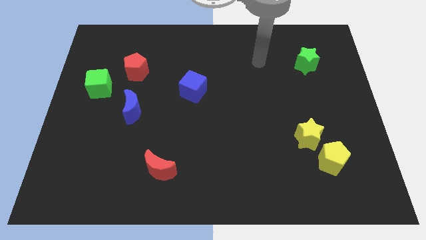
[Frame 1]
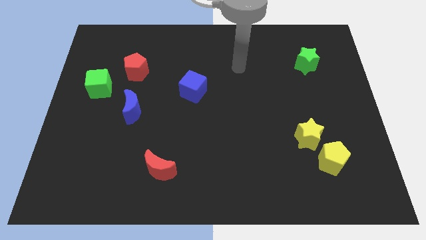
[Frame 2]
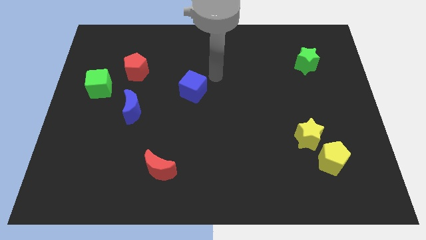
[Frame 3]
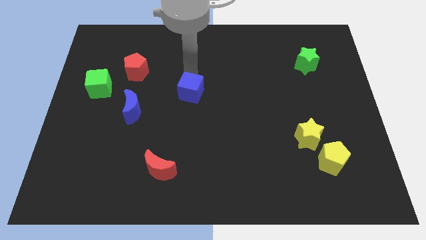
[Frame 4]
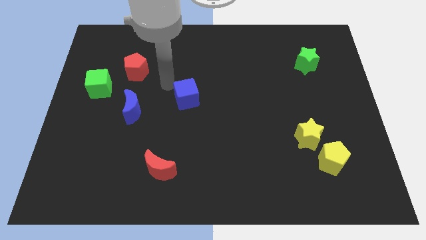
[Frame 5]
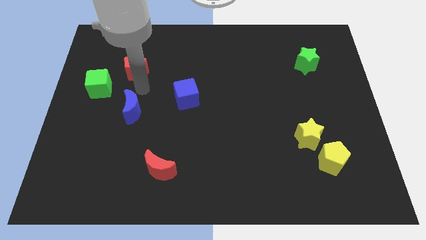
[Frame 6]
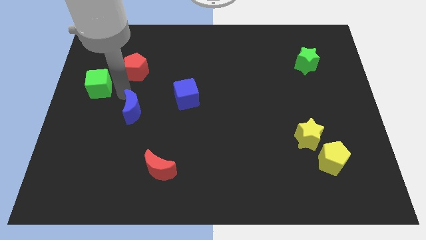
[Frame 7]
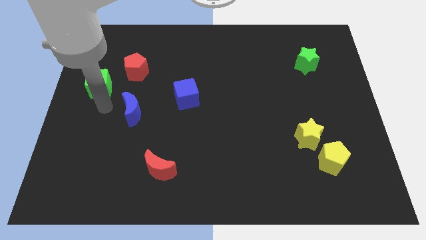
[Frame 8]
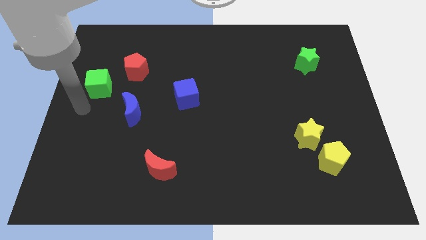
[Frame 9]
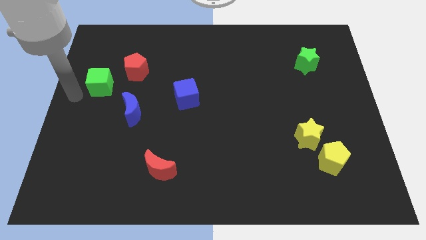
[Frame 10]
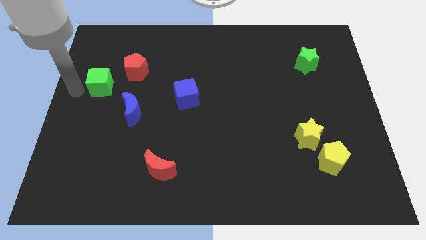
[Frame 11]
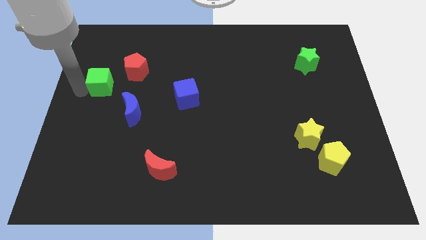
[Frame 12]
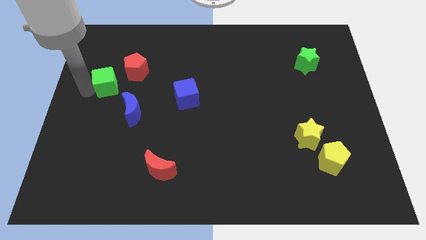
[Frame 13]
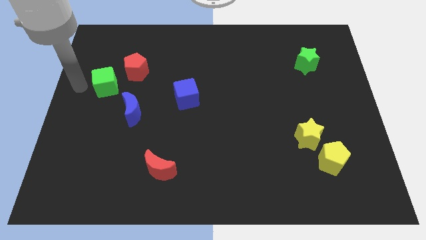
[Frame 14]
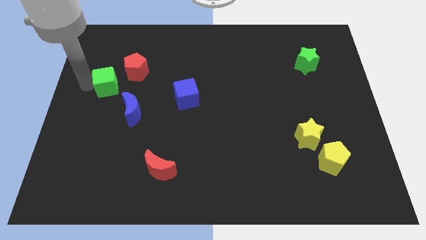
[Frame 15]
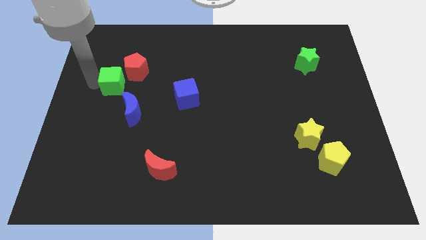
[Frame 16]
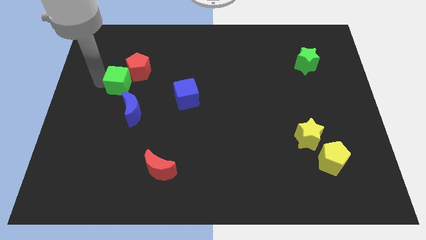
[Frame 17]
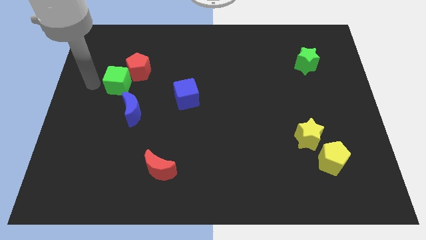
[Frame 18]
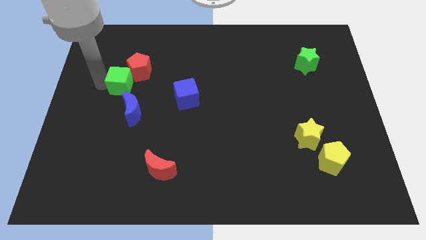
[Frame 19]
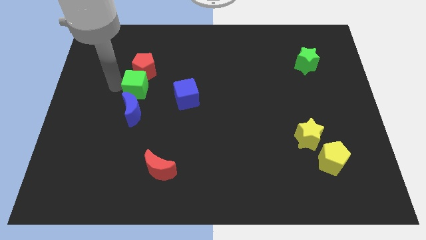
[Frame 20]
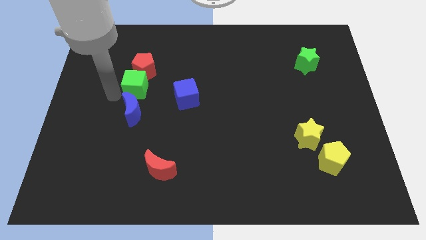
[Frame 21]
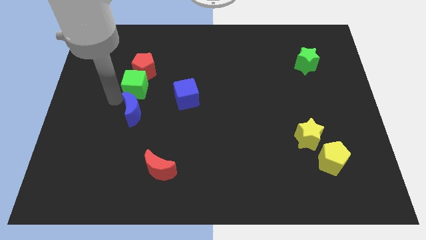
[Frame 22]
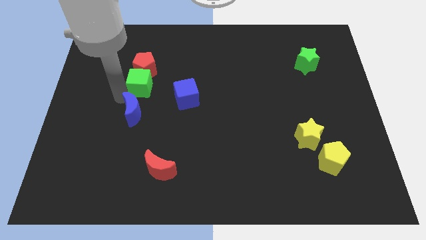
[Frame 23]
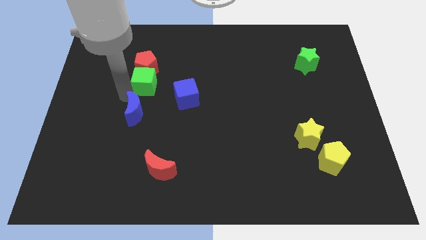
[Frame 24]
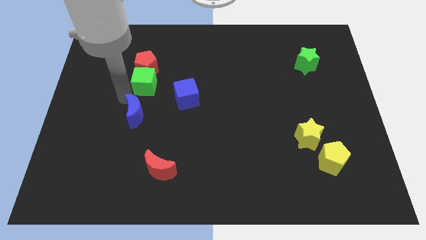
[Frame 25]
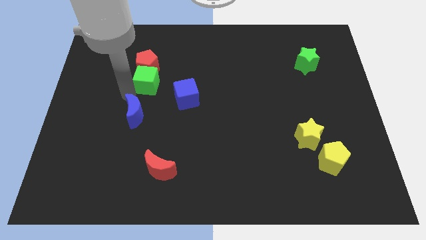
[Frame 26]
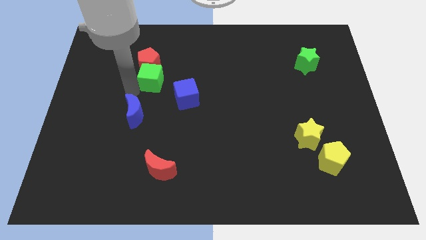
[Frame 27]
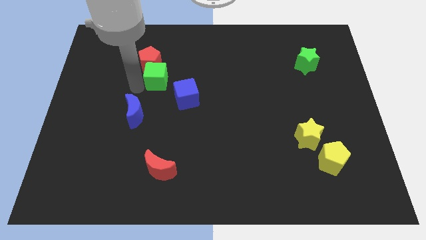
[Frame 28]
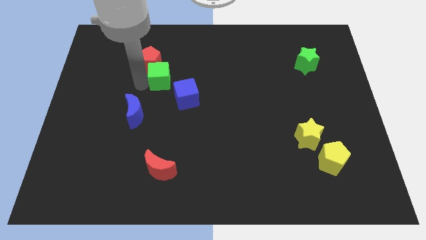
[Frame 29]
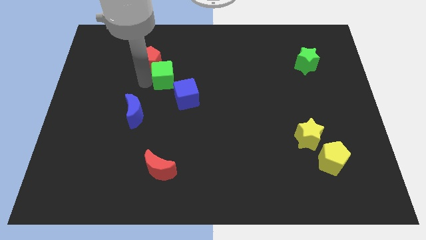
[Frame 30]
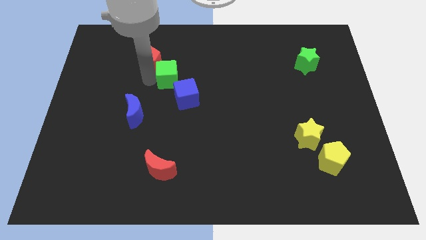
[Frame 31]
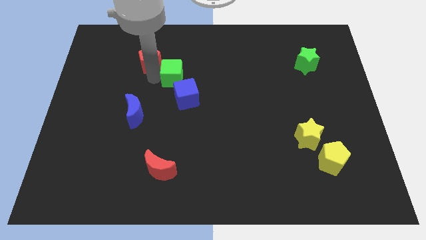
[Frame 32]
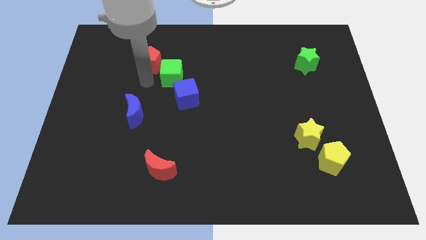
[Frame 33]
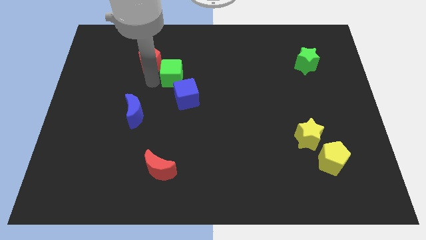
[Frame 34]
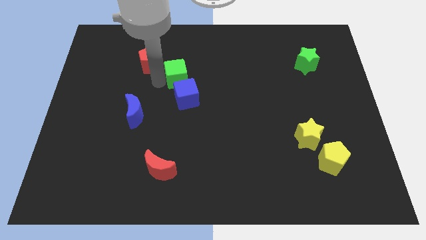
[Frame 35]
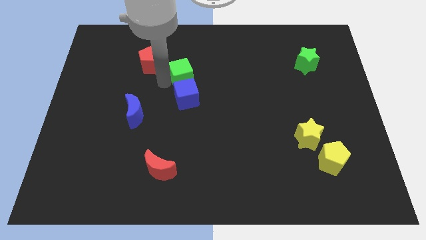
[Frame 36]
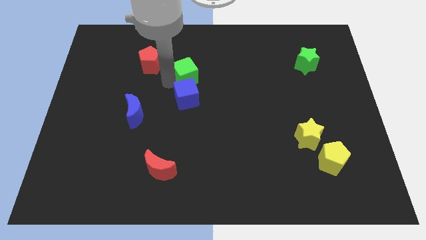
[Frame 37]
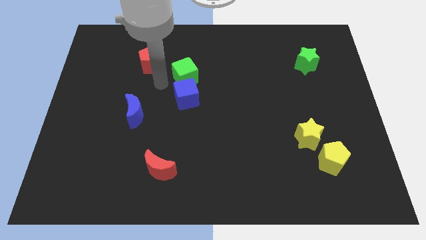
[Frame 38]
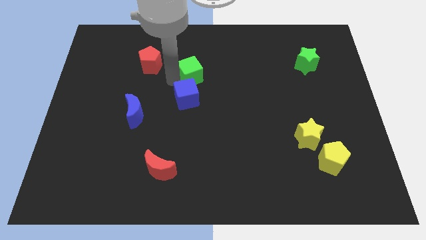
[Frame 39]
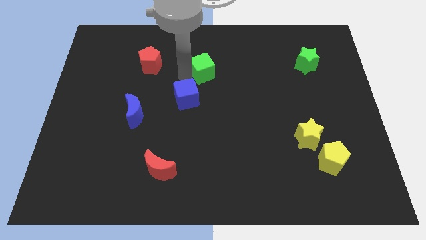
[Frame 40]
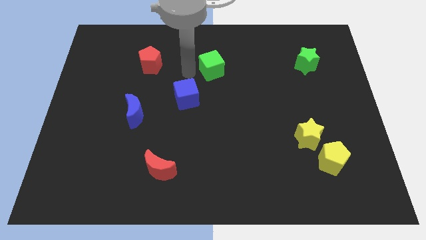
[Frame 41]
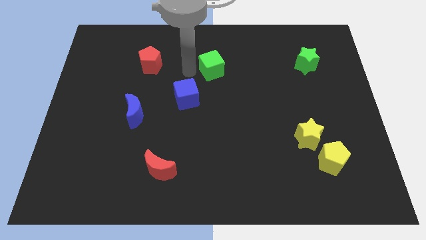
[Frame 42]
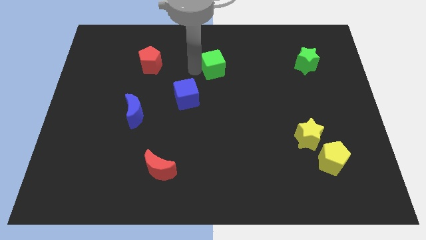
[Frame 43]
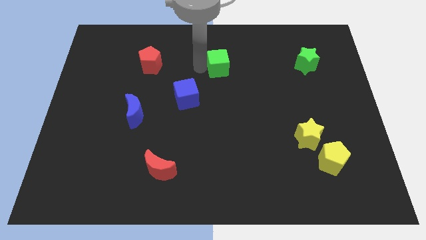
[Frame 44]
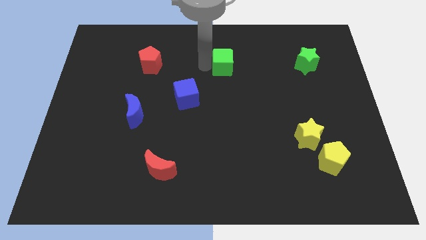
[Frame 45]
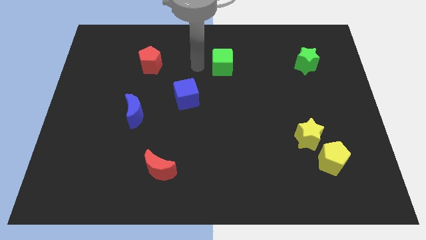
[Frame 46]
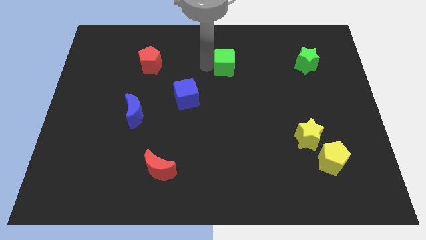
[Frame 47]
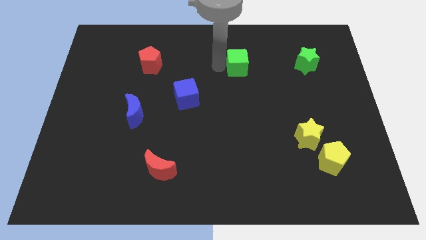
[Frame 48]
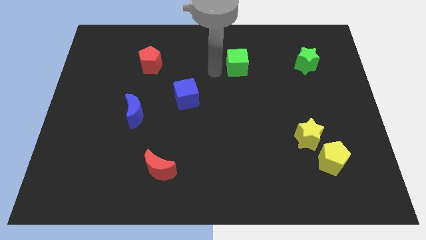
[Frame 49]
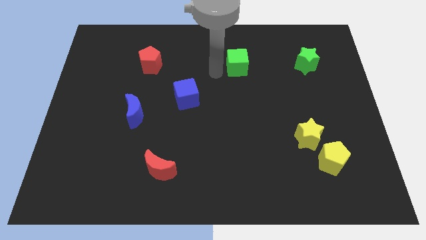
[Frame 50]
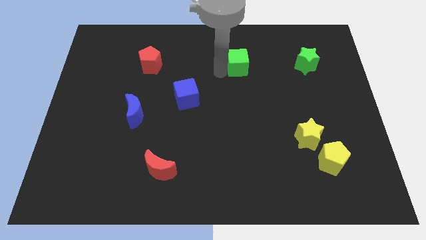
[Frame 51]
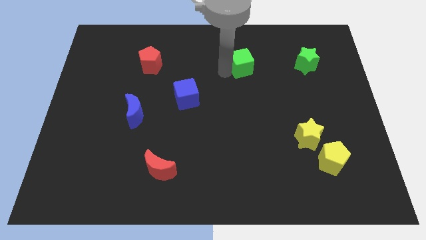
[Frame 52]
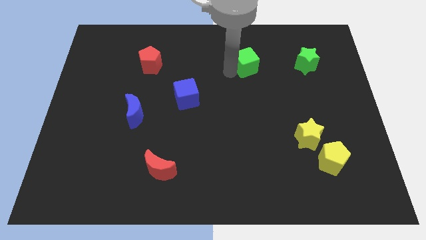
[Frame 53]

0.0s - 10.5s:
slide the green cube to the left of the green star

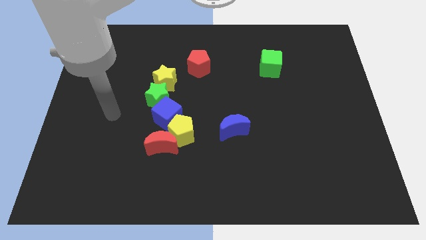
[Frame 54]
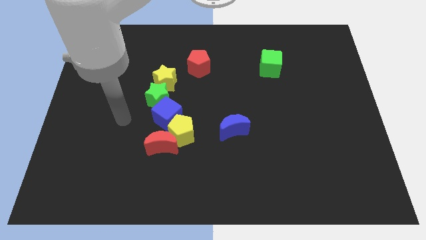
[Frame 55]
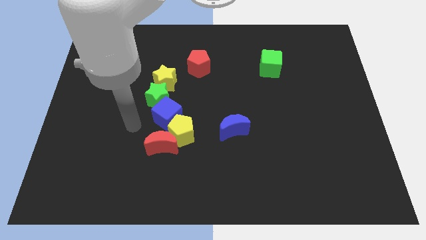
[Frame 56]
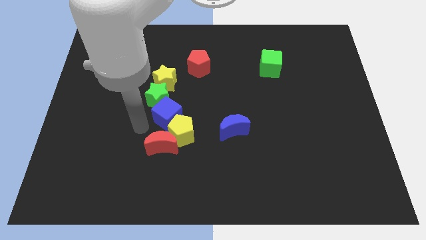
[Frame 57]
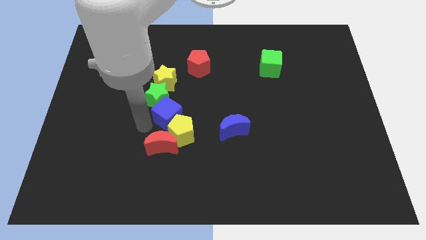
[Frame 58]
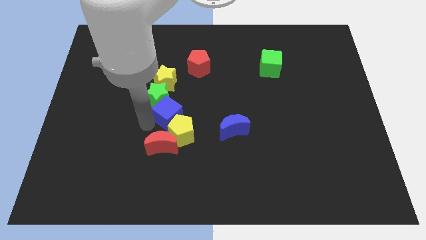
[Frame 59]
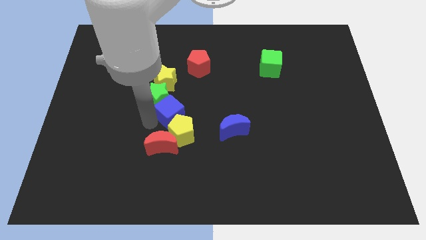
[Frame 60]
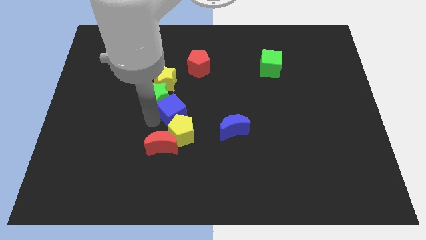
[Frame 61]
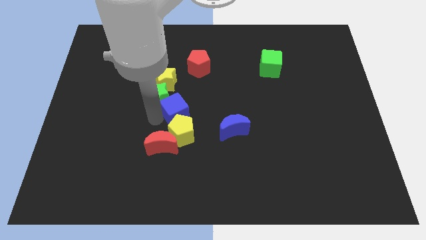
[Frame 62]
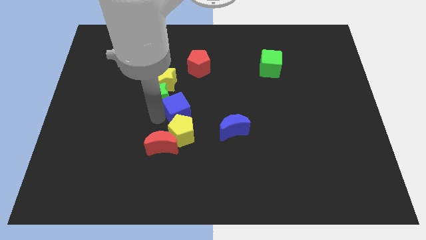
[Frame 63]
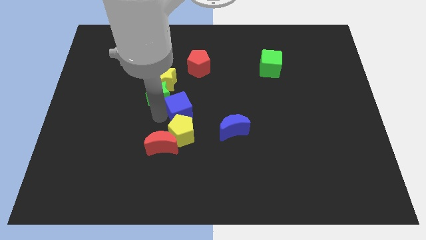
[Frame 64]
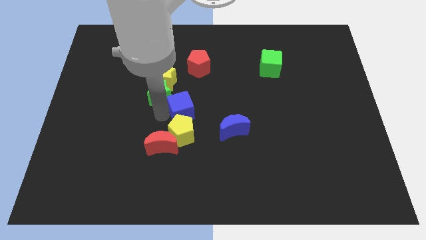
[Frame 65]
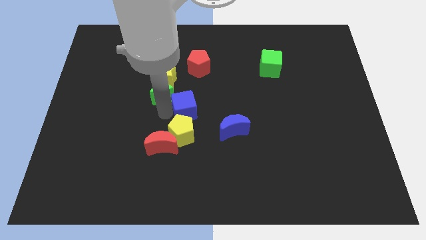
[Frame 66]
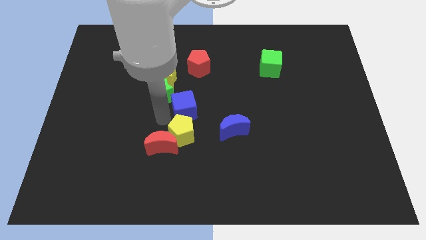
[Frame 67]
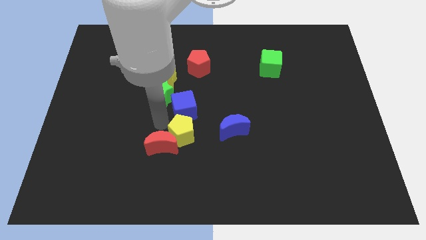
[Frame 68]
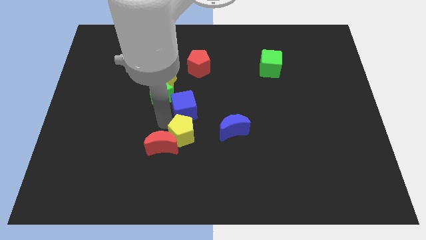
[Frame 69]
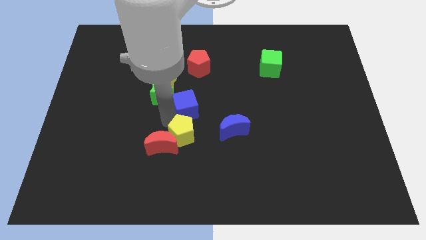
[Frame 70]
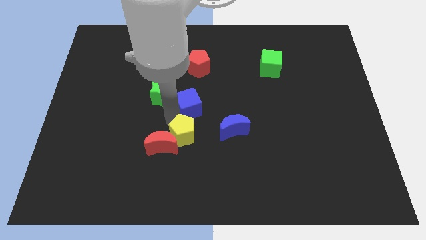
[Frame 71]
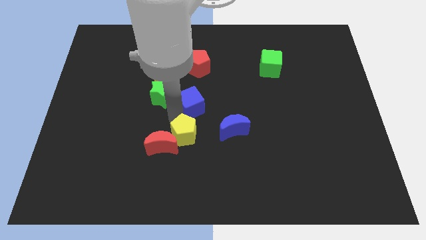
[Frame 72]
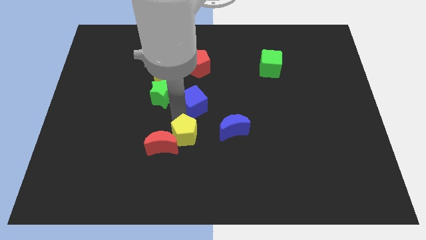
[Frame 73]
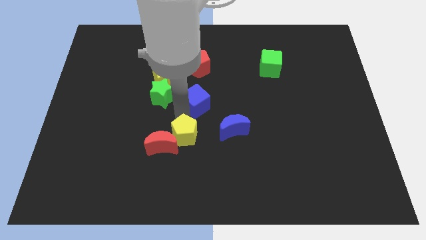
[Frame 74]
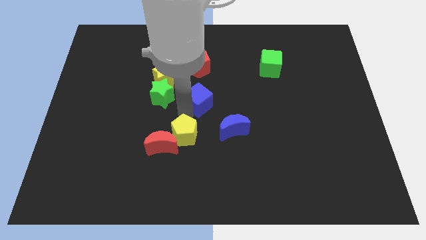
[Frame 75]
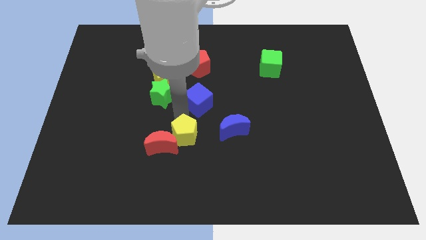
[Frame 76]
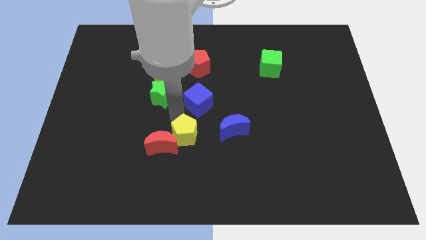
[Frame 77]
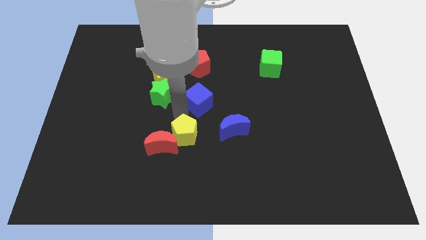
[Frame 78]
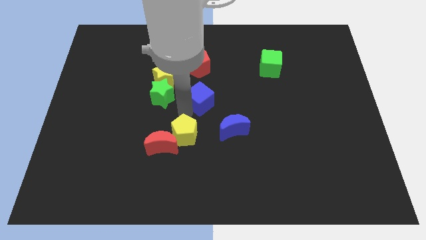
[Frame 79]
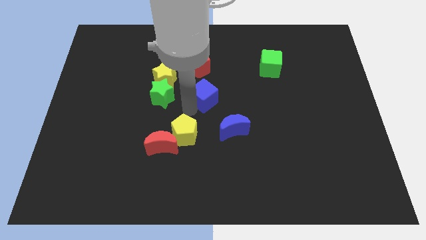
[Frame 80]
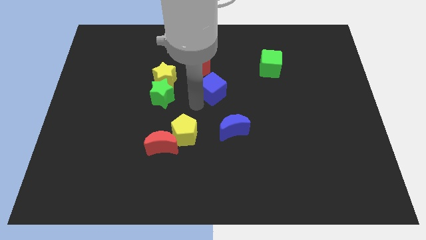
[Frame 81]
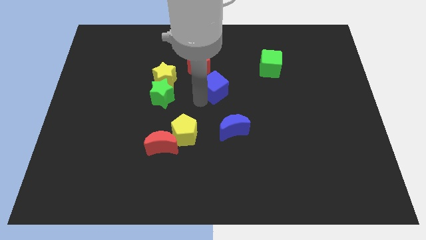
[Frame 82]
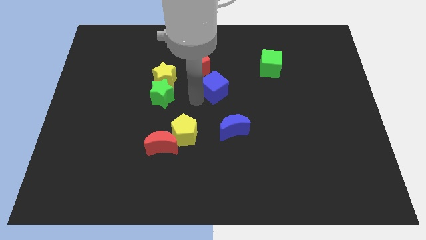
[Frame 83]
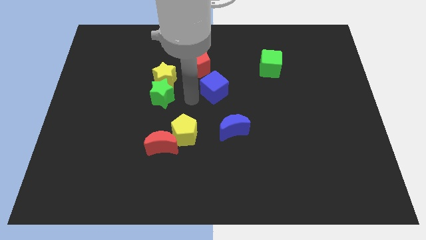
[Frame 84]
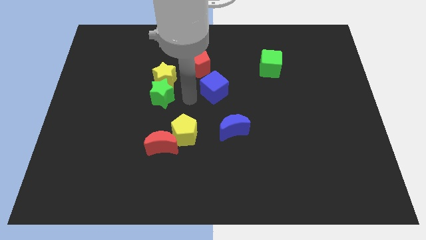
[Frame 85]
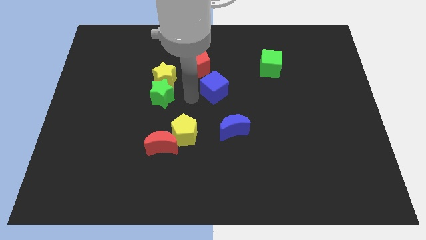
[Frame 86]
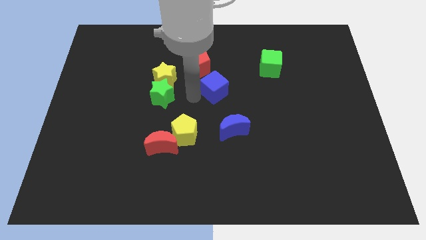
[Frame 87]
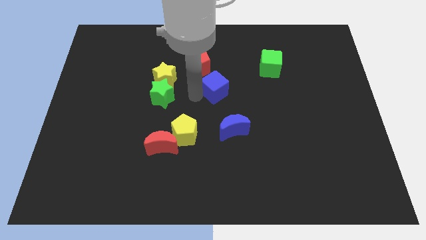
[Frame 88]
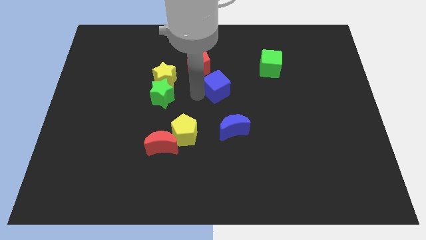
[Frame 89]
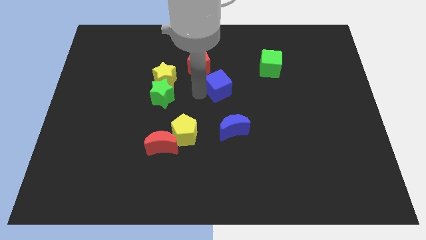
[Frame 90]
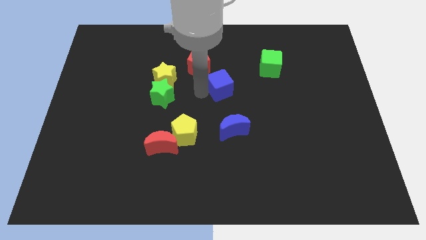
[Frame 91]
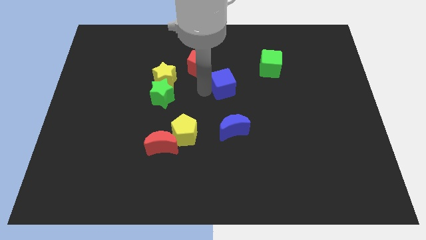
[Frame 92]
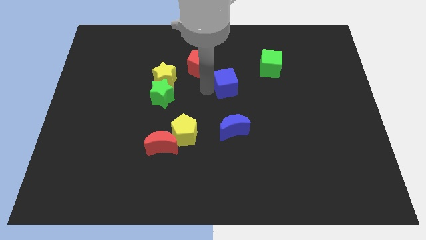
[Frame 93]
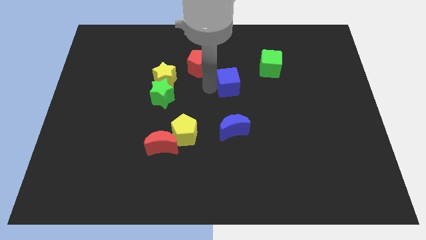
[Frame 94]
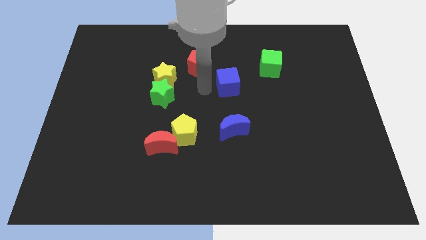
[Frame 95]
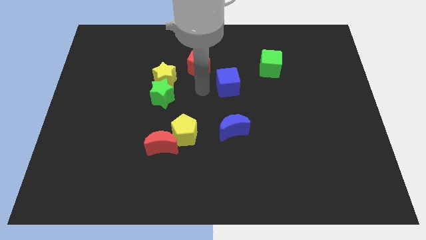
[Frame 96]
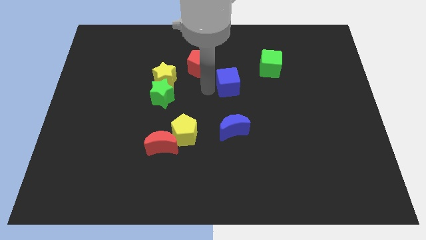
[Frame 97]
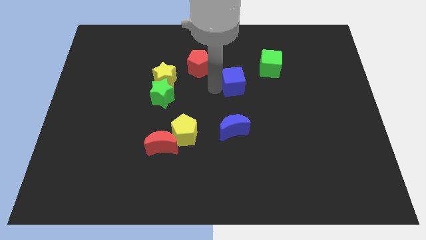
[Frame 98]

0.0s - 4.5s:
push the blue cube diagonally down and to the left of the green cube
